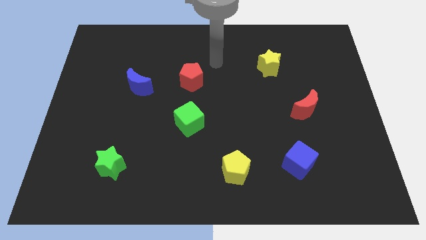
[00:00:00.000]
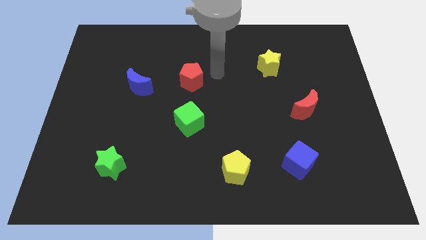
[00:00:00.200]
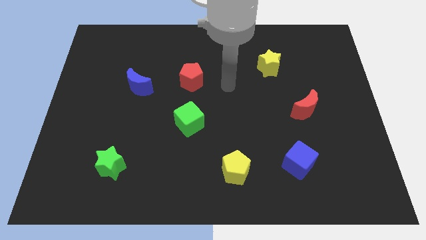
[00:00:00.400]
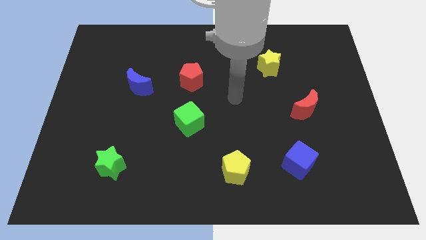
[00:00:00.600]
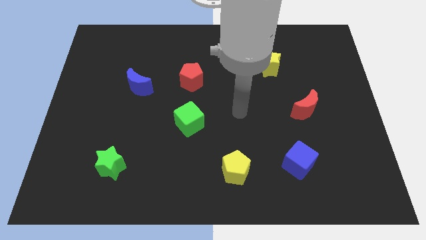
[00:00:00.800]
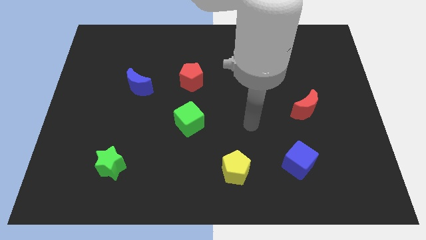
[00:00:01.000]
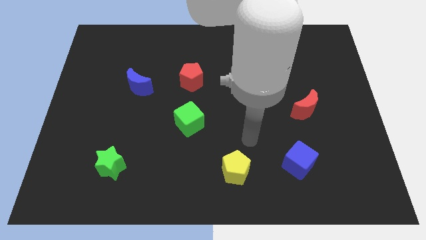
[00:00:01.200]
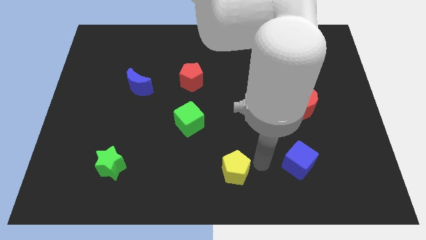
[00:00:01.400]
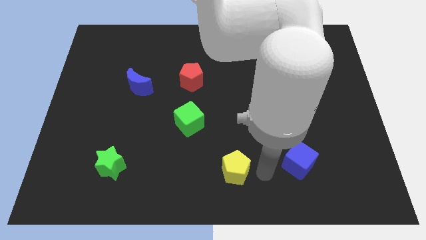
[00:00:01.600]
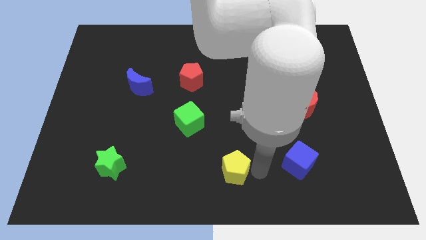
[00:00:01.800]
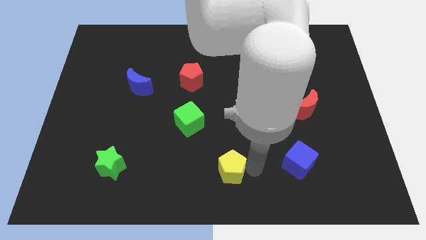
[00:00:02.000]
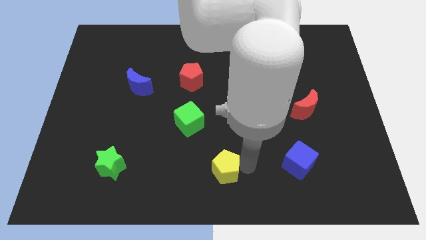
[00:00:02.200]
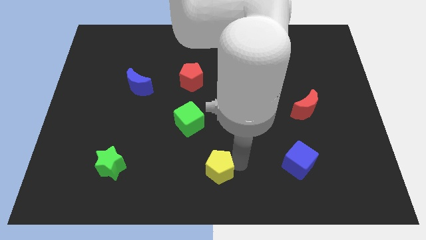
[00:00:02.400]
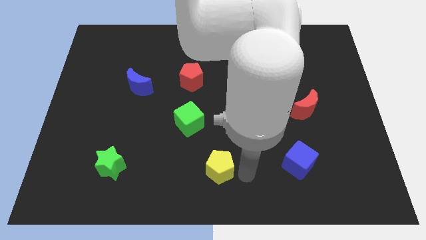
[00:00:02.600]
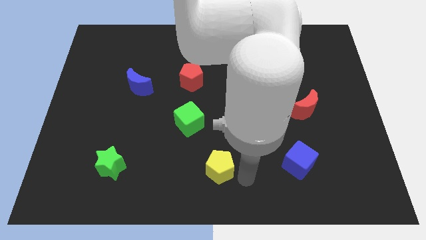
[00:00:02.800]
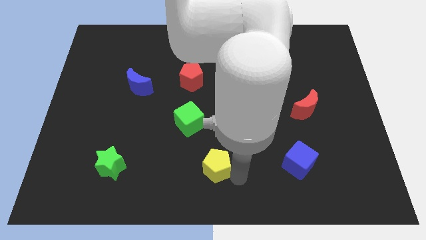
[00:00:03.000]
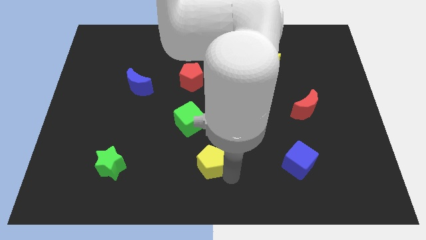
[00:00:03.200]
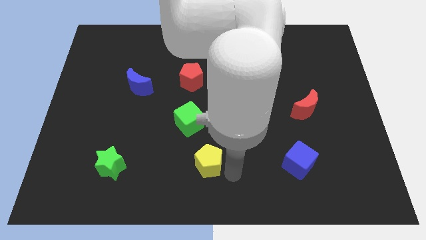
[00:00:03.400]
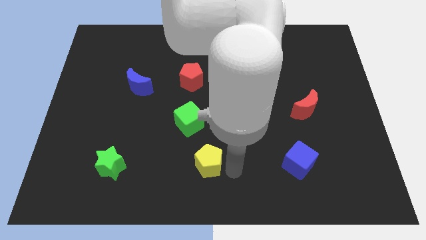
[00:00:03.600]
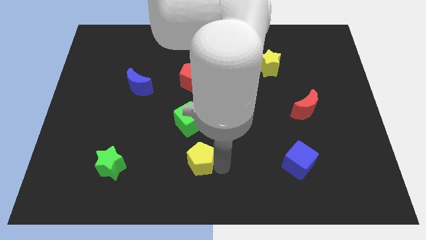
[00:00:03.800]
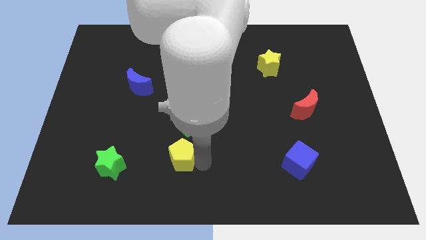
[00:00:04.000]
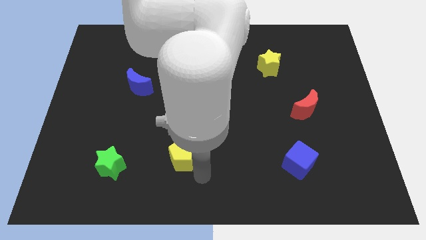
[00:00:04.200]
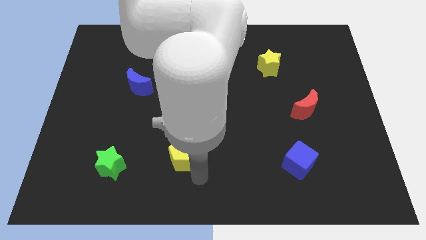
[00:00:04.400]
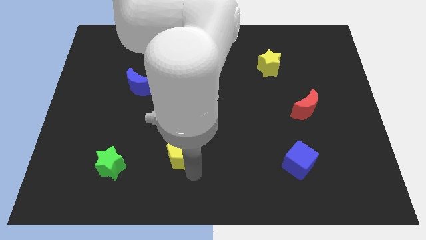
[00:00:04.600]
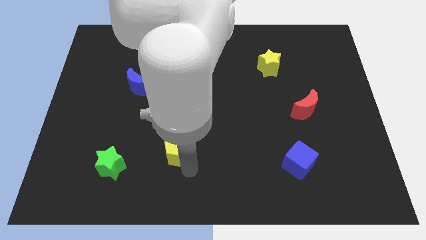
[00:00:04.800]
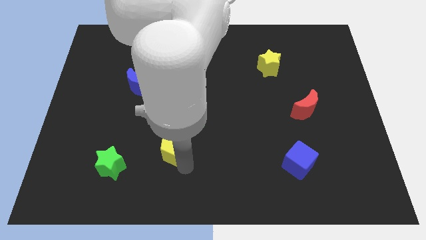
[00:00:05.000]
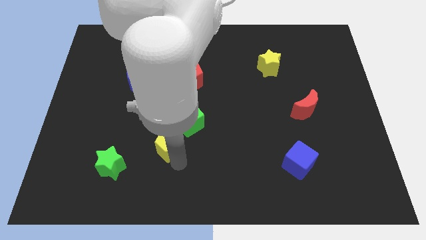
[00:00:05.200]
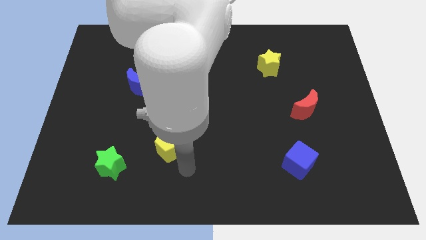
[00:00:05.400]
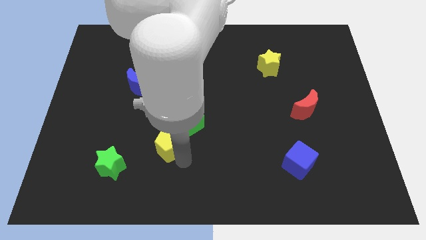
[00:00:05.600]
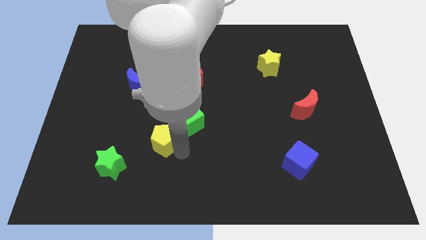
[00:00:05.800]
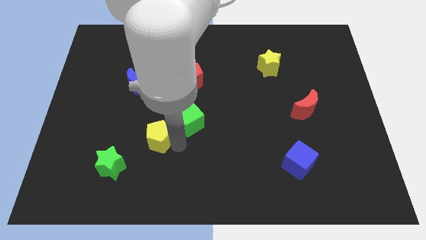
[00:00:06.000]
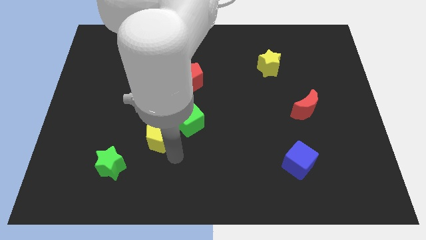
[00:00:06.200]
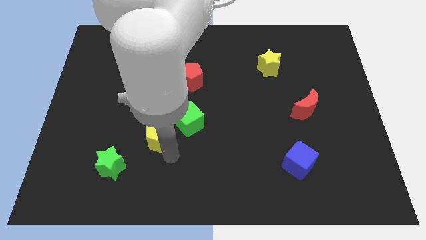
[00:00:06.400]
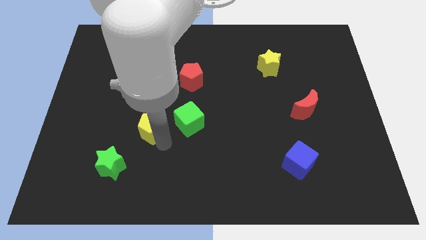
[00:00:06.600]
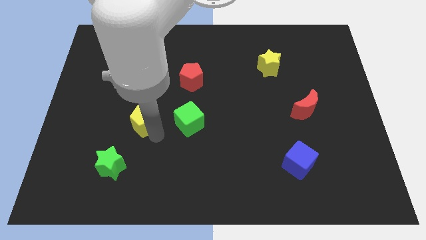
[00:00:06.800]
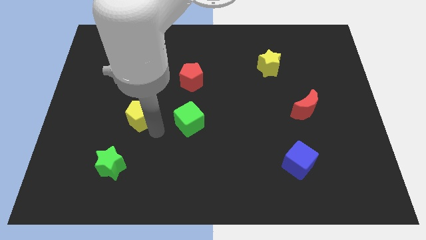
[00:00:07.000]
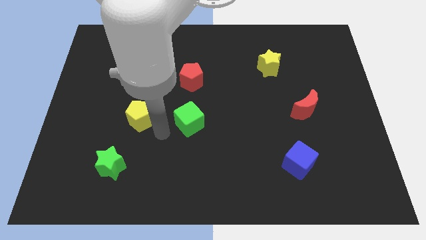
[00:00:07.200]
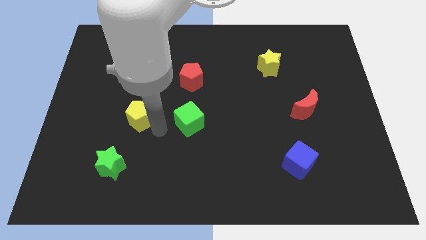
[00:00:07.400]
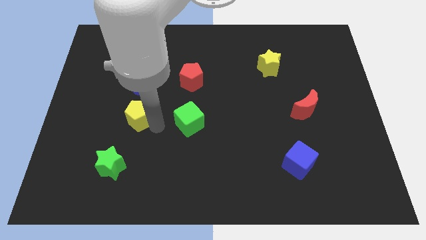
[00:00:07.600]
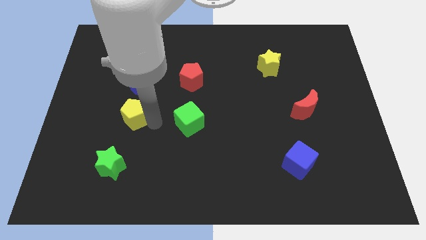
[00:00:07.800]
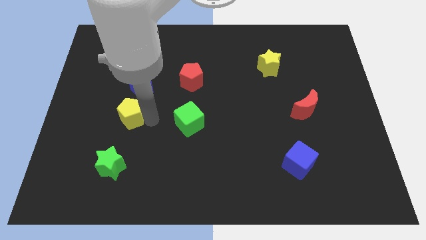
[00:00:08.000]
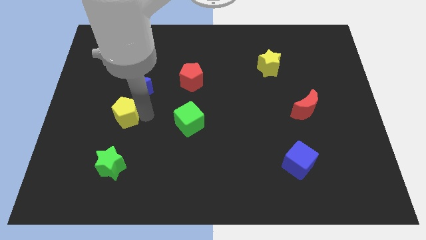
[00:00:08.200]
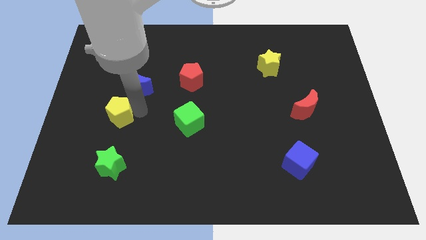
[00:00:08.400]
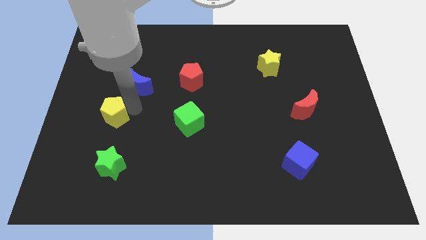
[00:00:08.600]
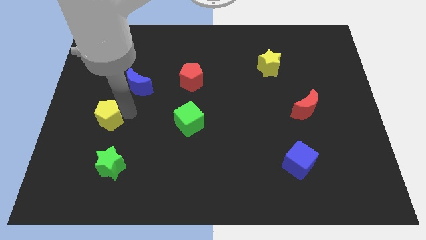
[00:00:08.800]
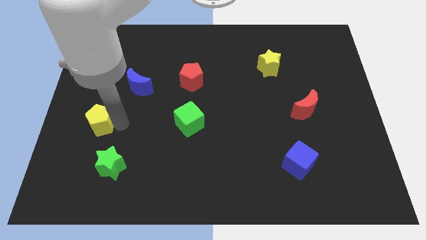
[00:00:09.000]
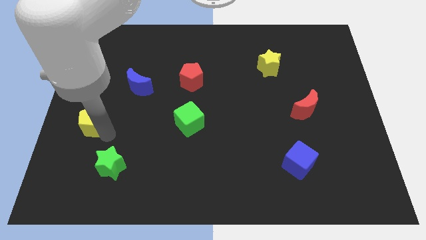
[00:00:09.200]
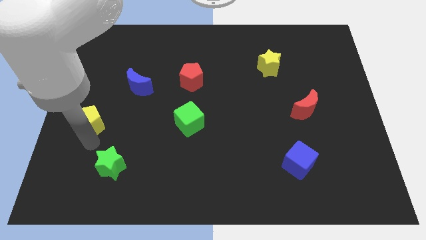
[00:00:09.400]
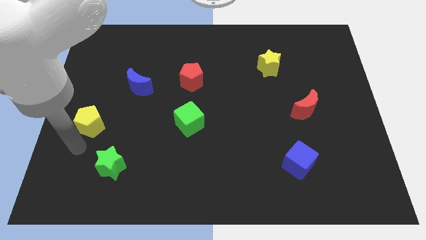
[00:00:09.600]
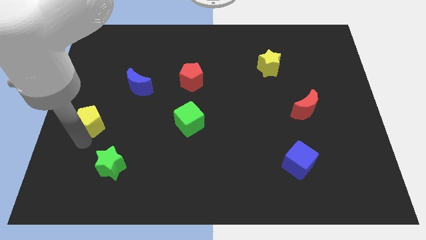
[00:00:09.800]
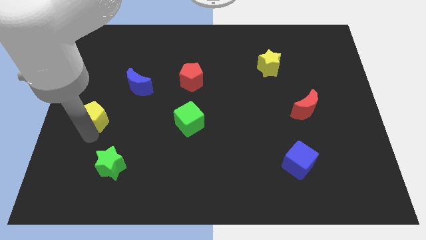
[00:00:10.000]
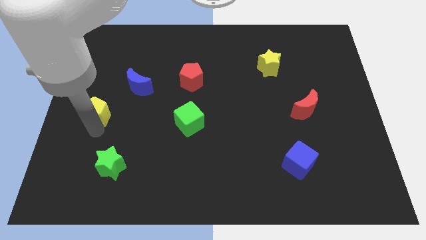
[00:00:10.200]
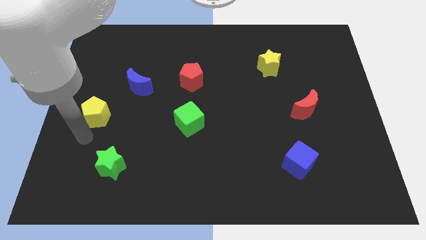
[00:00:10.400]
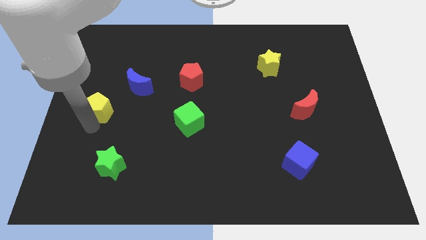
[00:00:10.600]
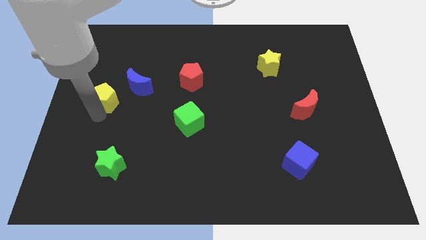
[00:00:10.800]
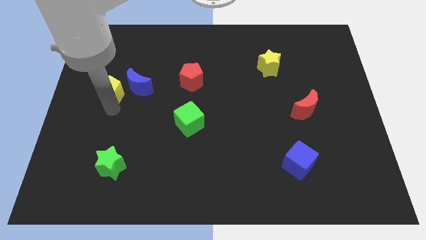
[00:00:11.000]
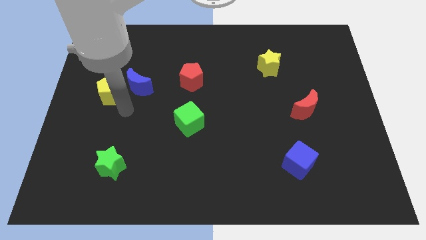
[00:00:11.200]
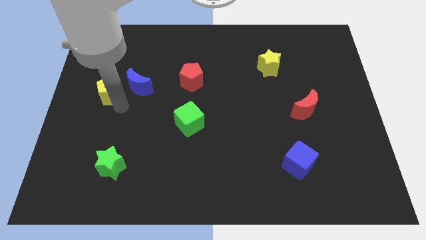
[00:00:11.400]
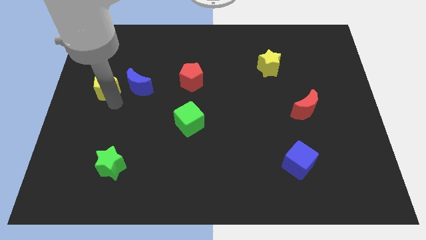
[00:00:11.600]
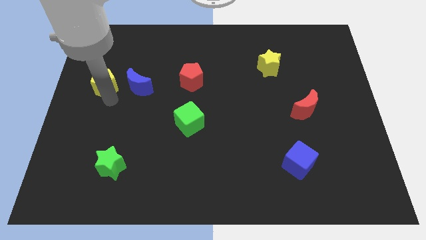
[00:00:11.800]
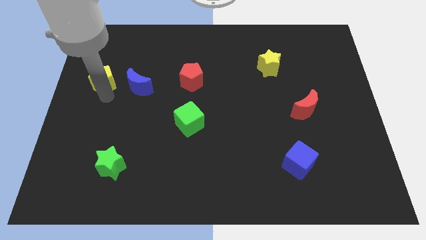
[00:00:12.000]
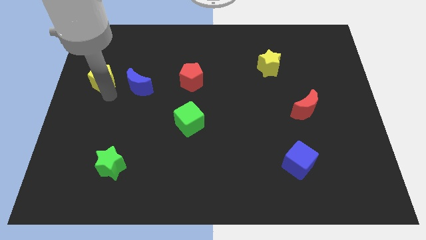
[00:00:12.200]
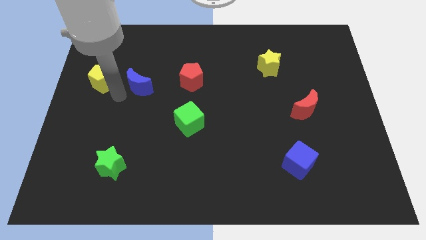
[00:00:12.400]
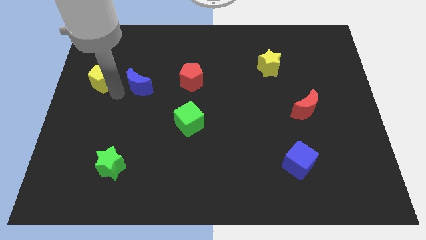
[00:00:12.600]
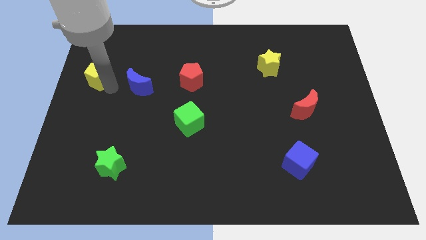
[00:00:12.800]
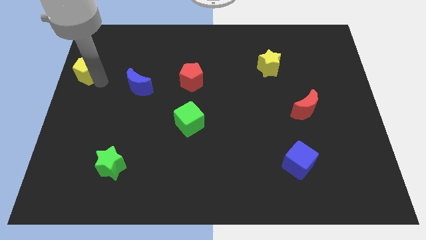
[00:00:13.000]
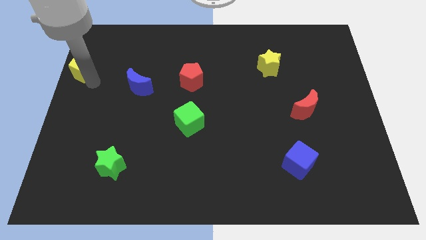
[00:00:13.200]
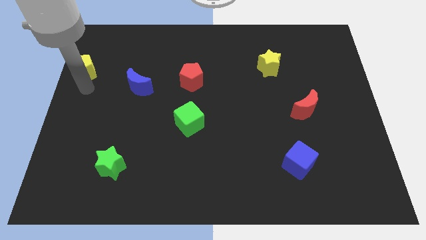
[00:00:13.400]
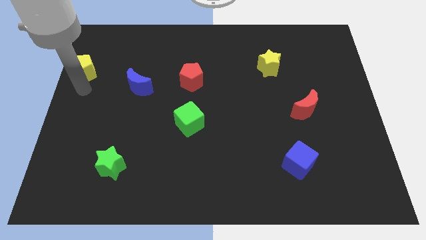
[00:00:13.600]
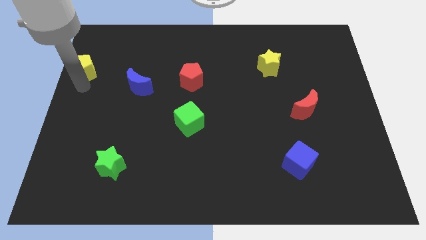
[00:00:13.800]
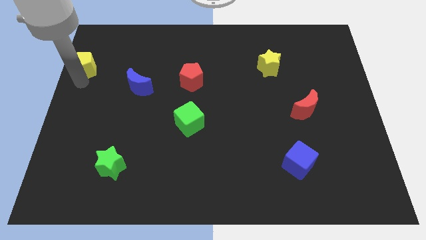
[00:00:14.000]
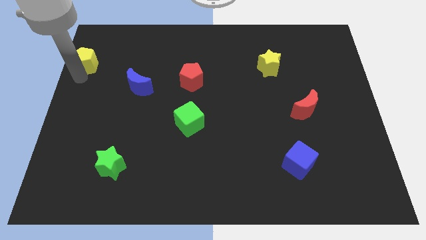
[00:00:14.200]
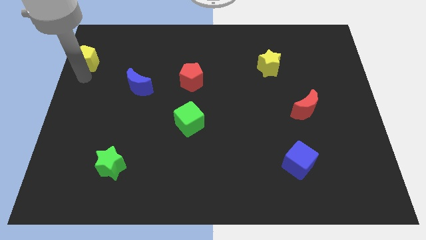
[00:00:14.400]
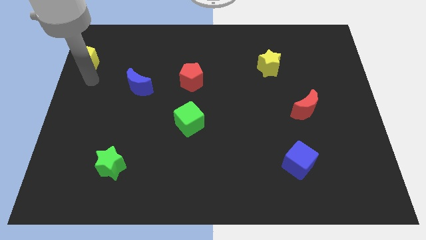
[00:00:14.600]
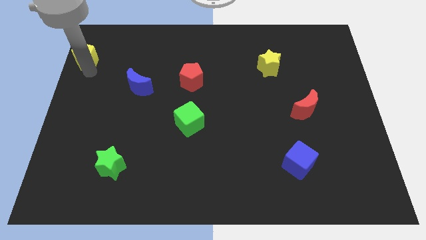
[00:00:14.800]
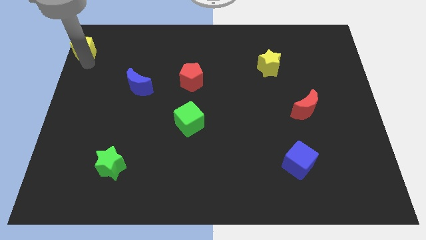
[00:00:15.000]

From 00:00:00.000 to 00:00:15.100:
put the yellow pentagon to the top left

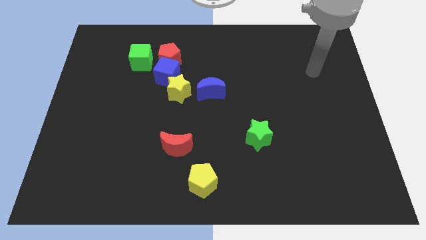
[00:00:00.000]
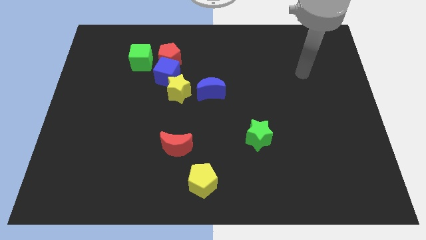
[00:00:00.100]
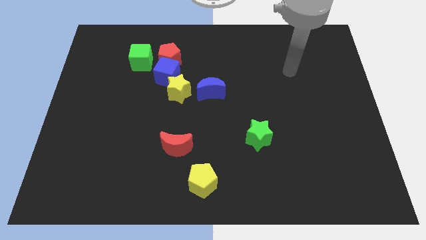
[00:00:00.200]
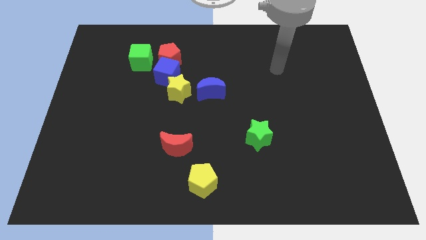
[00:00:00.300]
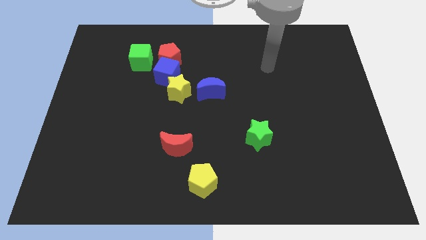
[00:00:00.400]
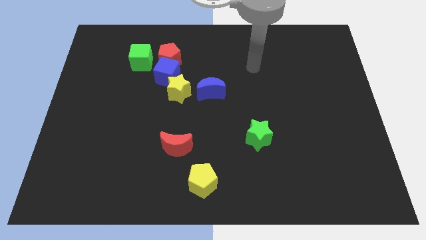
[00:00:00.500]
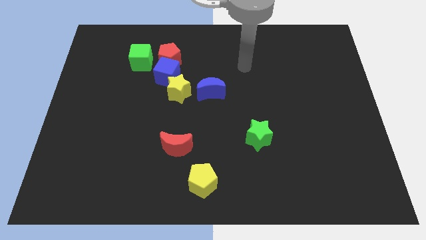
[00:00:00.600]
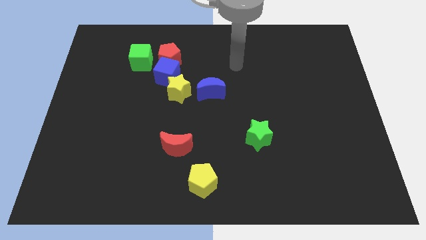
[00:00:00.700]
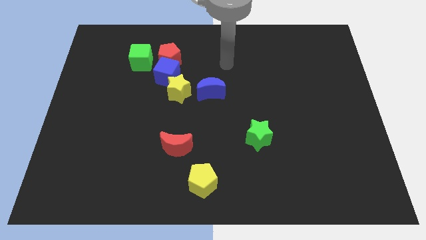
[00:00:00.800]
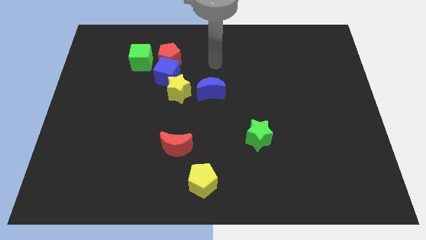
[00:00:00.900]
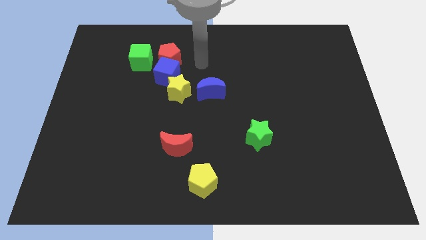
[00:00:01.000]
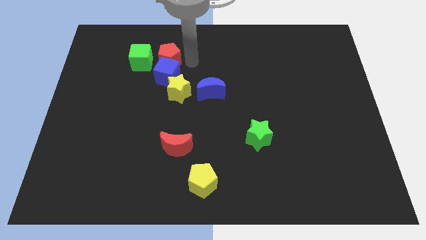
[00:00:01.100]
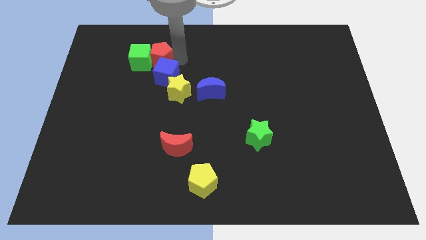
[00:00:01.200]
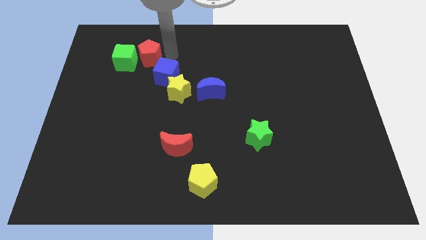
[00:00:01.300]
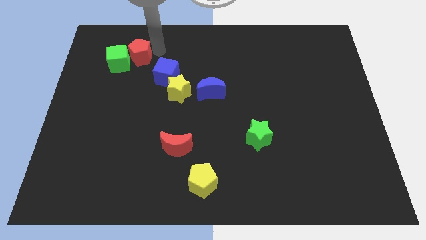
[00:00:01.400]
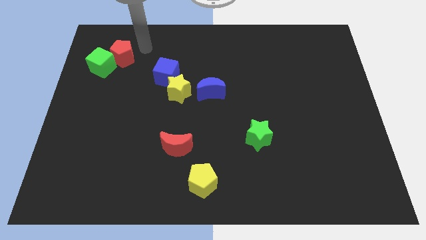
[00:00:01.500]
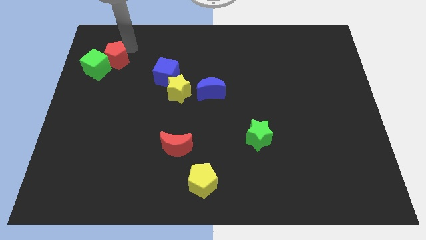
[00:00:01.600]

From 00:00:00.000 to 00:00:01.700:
move the green cube to the left side of the board
